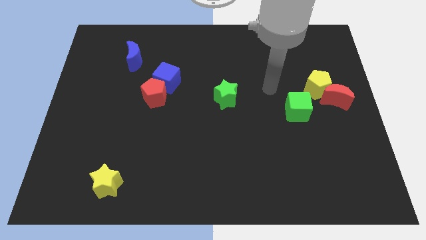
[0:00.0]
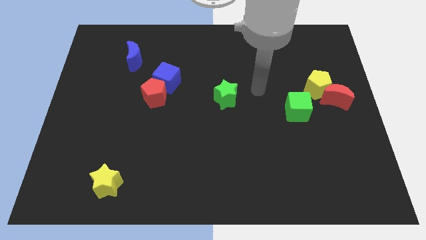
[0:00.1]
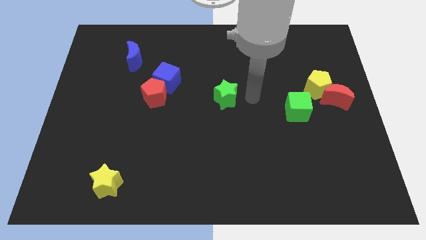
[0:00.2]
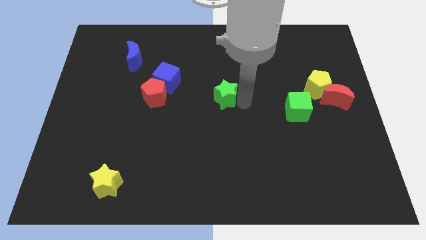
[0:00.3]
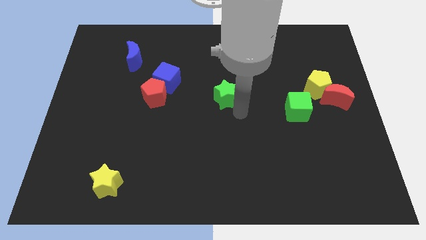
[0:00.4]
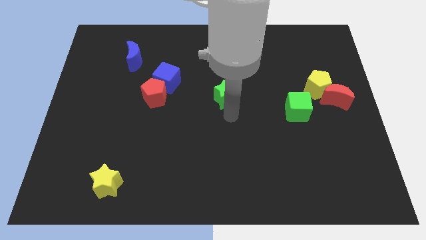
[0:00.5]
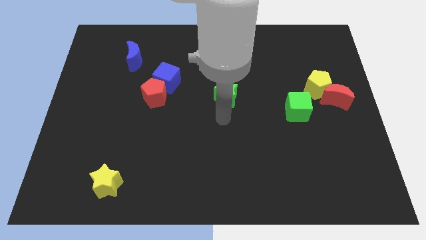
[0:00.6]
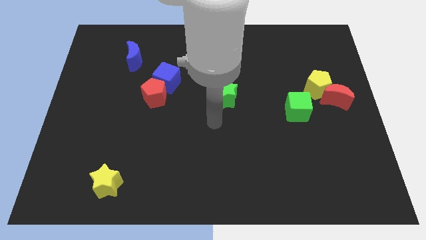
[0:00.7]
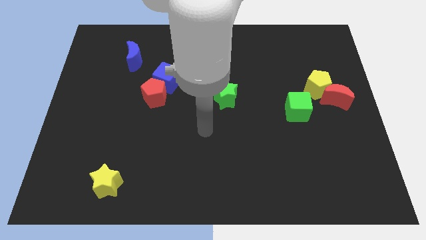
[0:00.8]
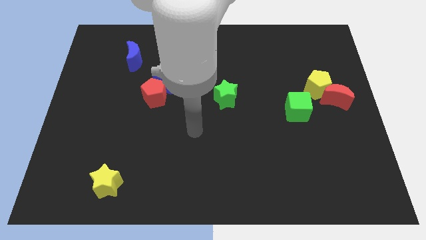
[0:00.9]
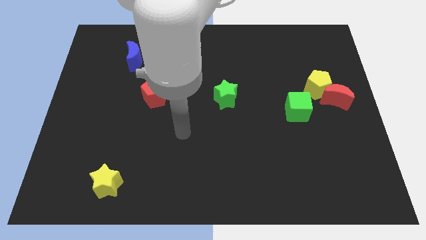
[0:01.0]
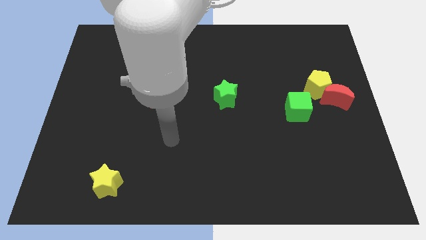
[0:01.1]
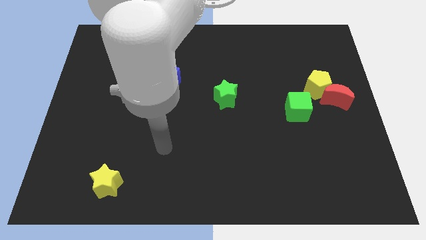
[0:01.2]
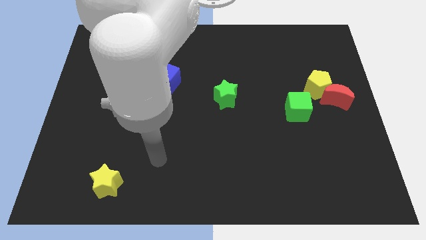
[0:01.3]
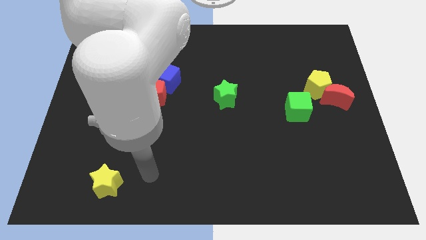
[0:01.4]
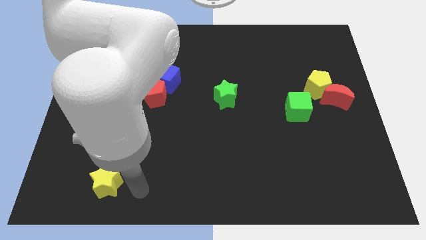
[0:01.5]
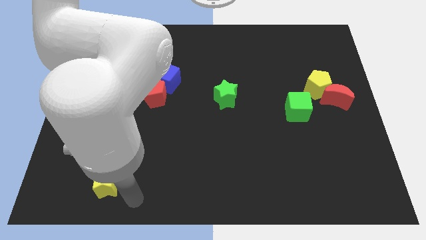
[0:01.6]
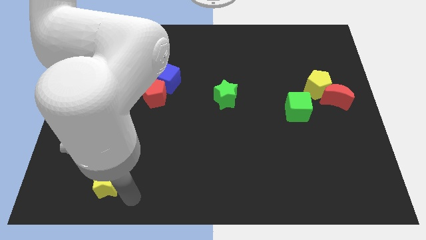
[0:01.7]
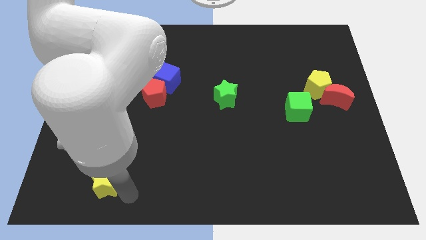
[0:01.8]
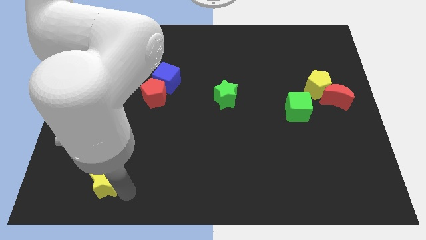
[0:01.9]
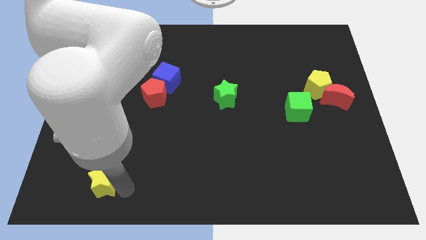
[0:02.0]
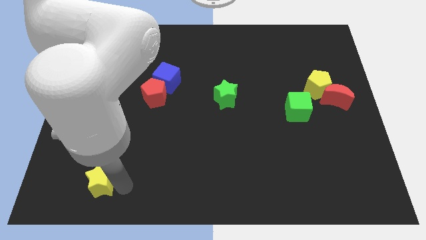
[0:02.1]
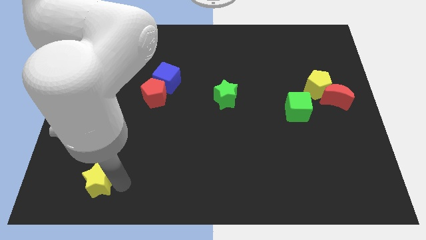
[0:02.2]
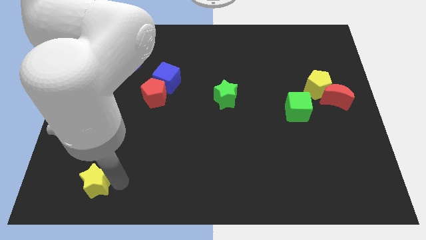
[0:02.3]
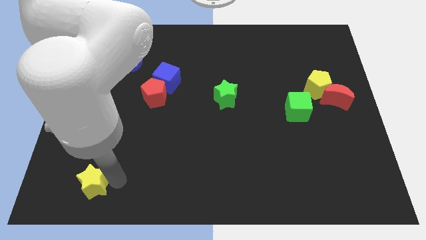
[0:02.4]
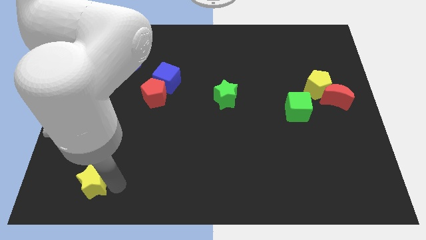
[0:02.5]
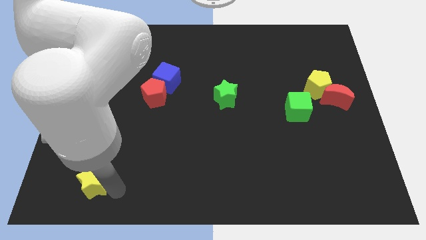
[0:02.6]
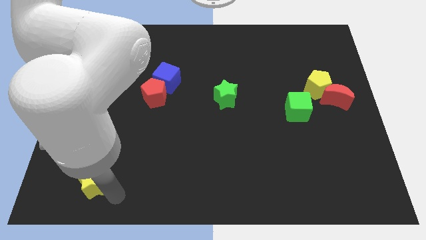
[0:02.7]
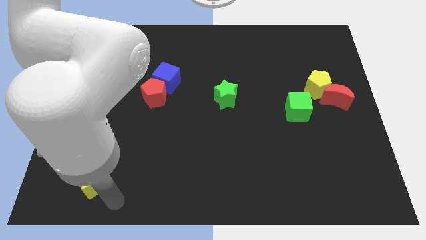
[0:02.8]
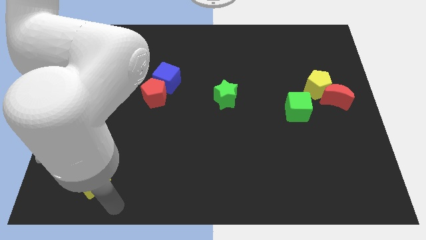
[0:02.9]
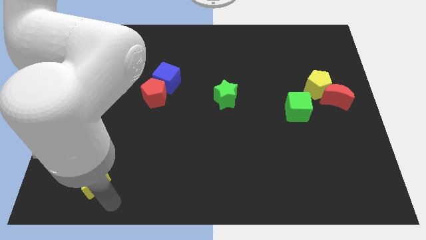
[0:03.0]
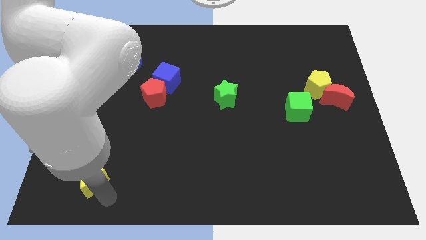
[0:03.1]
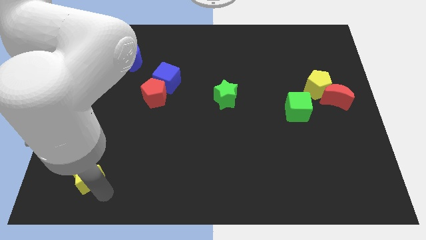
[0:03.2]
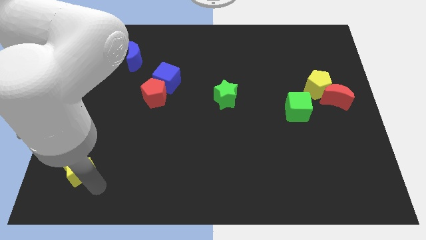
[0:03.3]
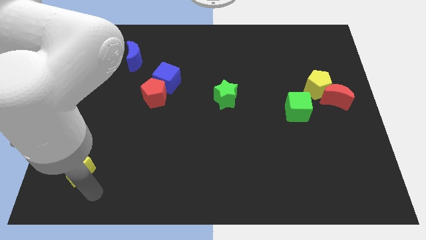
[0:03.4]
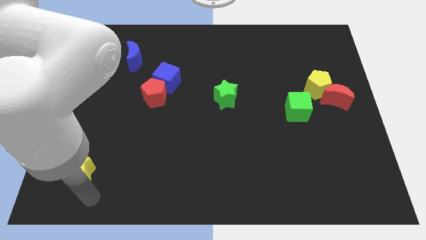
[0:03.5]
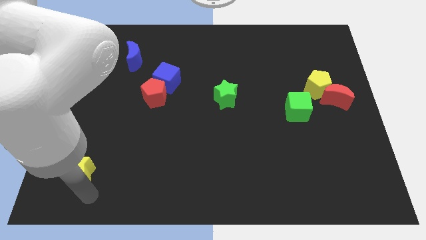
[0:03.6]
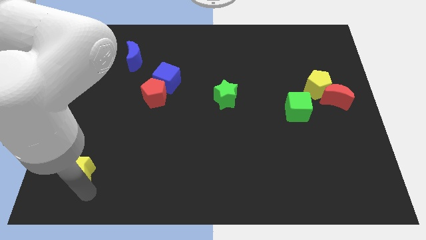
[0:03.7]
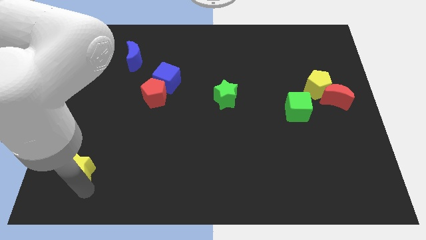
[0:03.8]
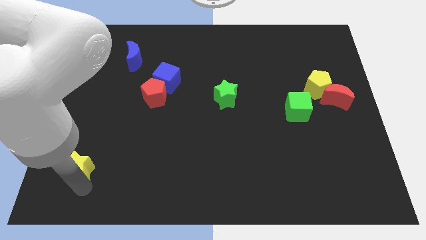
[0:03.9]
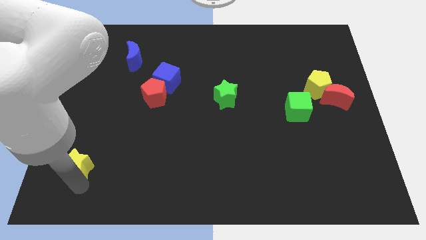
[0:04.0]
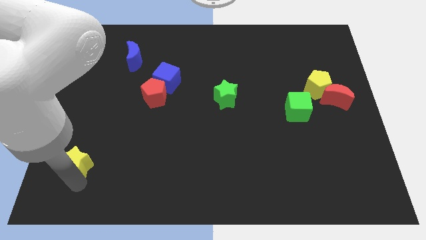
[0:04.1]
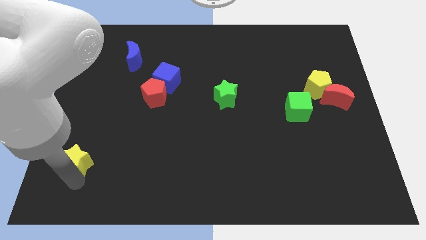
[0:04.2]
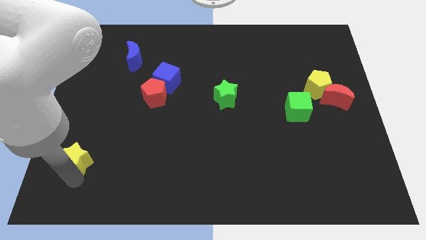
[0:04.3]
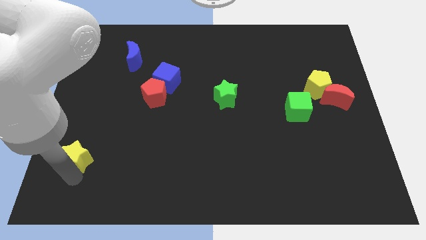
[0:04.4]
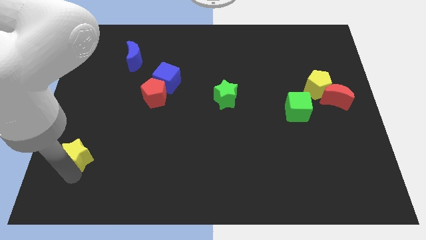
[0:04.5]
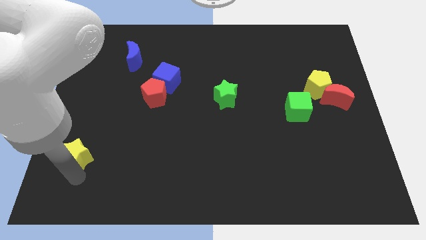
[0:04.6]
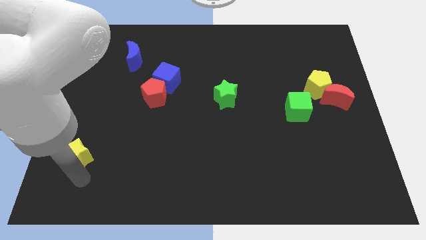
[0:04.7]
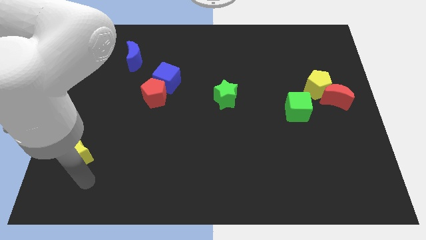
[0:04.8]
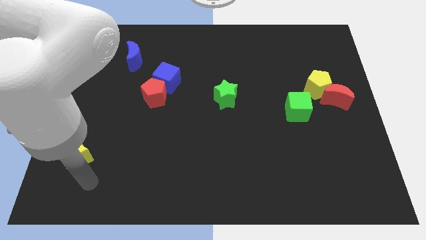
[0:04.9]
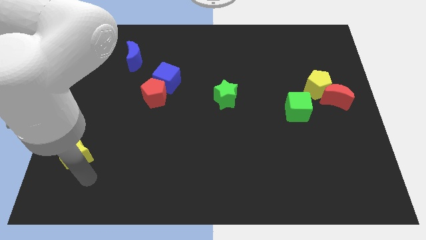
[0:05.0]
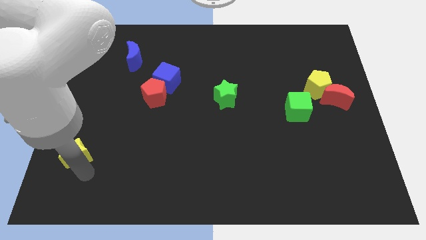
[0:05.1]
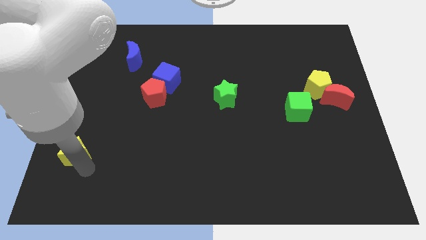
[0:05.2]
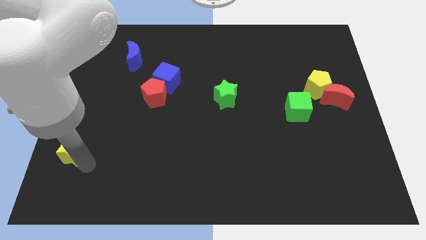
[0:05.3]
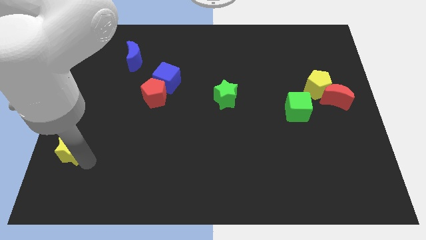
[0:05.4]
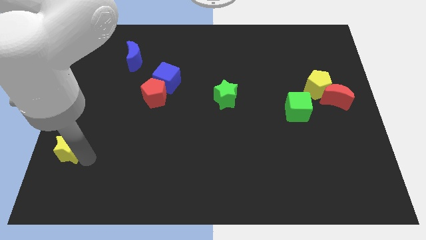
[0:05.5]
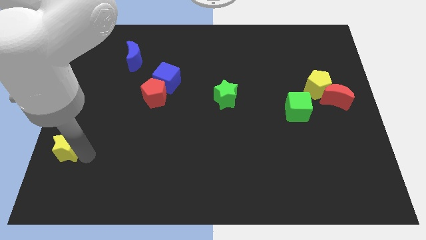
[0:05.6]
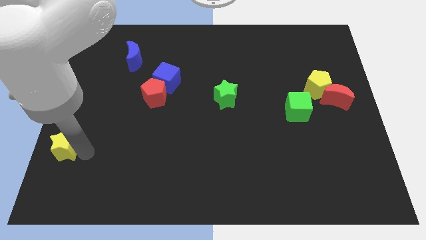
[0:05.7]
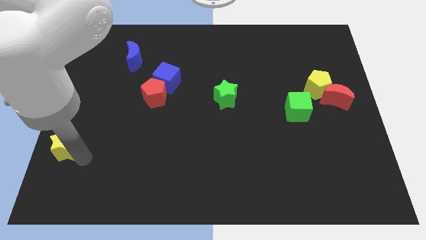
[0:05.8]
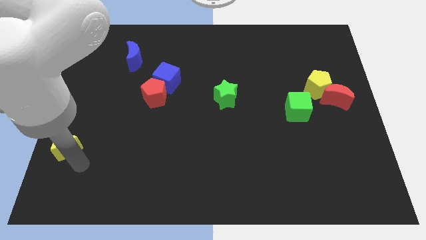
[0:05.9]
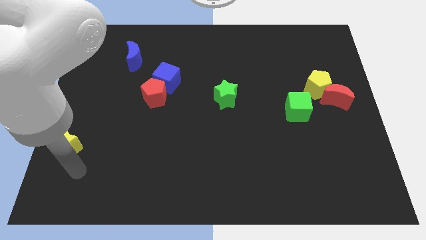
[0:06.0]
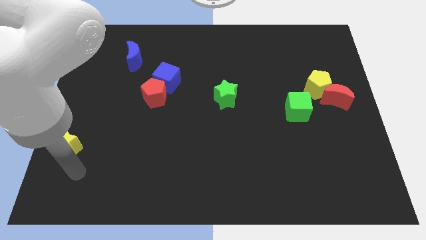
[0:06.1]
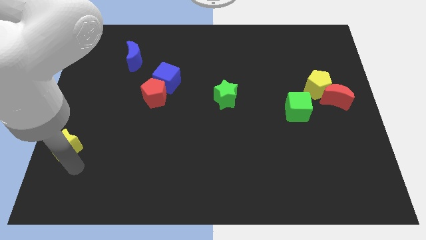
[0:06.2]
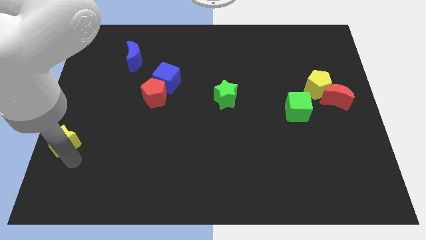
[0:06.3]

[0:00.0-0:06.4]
push the yellow star to the left side

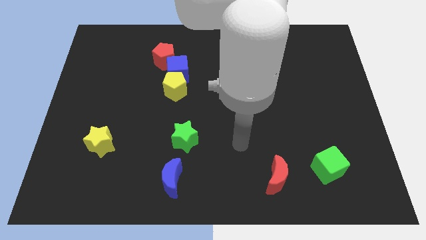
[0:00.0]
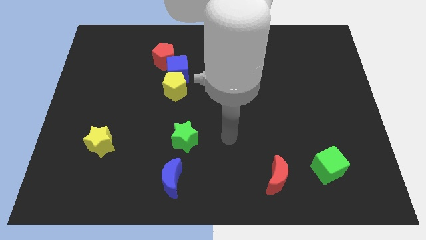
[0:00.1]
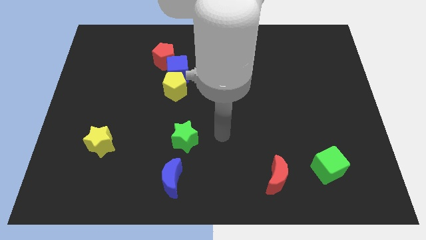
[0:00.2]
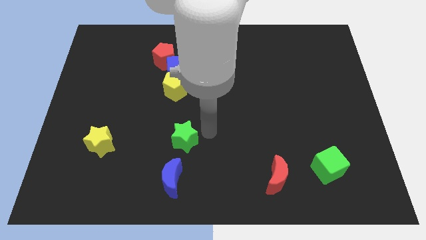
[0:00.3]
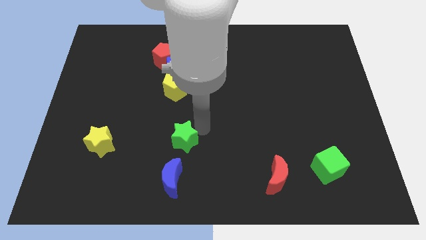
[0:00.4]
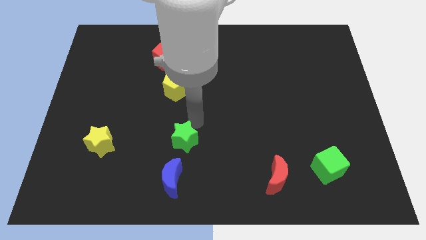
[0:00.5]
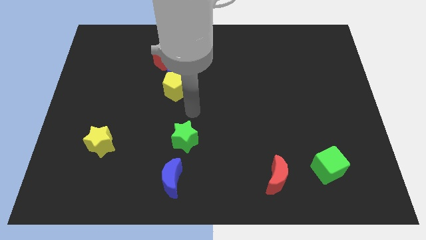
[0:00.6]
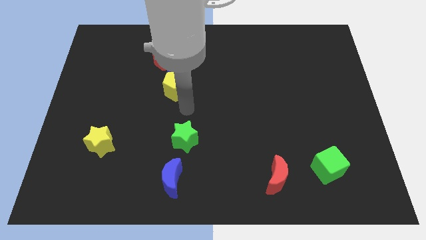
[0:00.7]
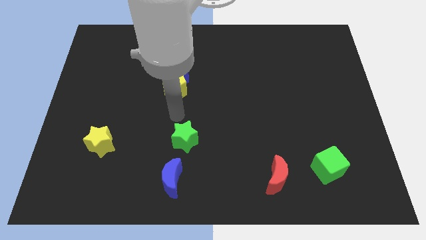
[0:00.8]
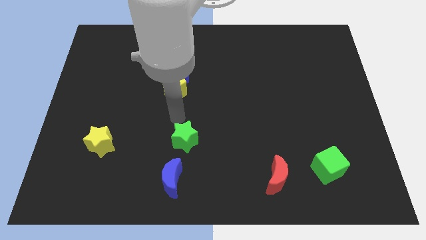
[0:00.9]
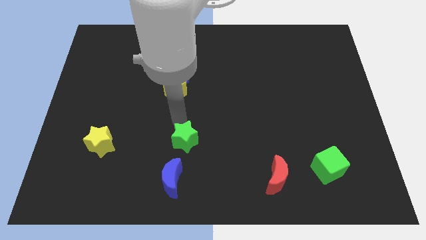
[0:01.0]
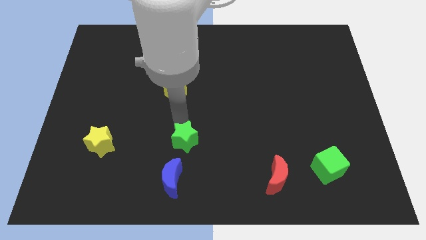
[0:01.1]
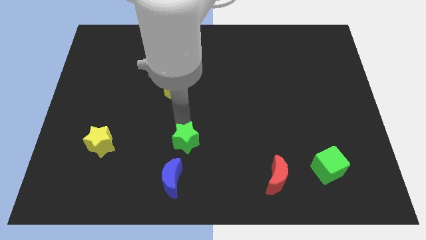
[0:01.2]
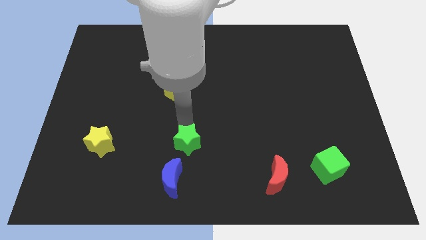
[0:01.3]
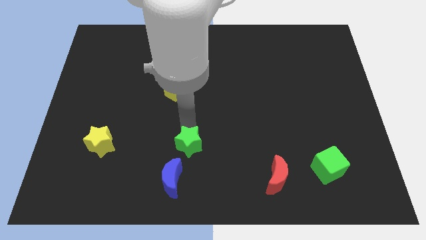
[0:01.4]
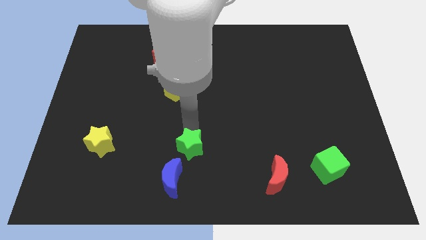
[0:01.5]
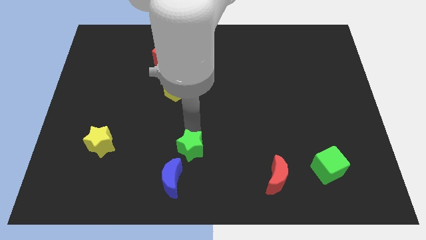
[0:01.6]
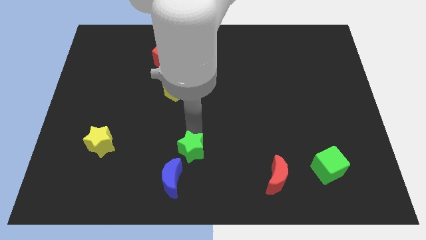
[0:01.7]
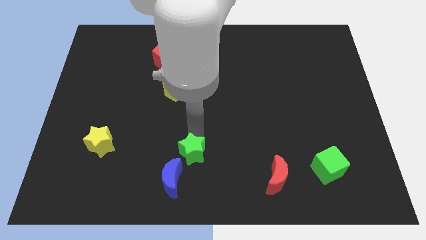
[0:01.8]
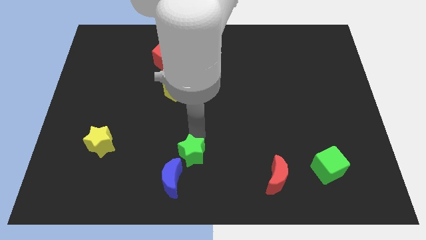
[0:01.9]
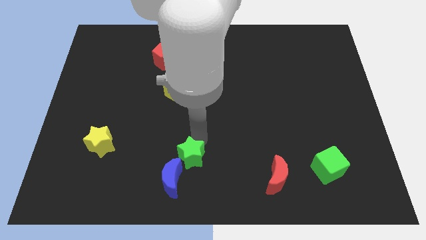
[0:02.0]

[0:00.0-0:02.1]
move the green star to the bottom side
